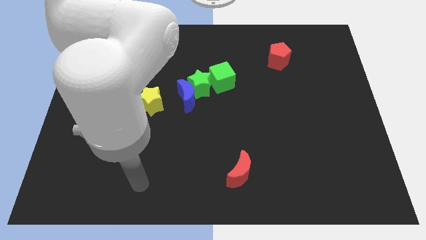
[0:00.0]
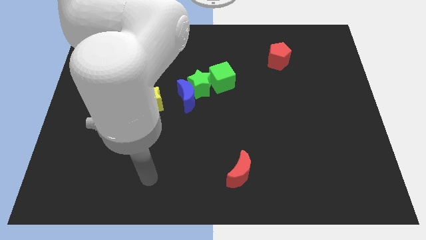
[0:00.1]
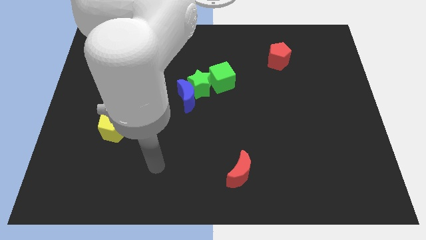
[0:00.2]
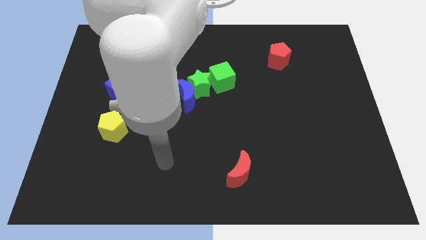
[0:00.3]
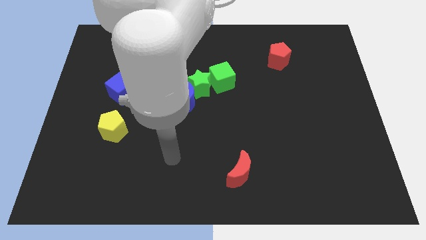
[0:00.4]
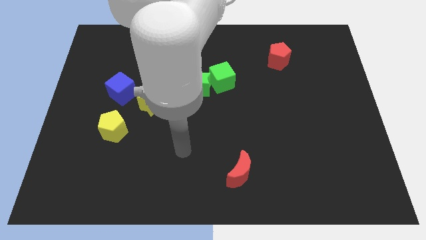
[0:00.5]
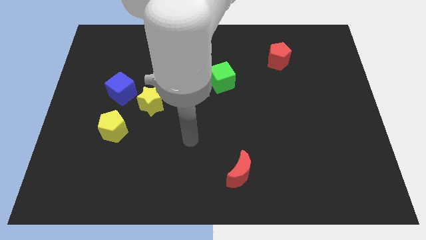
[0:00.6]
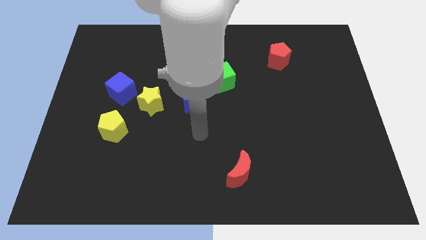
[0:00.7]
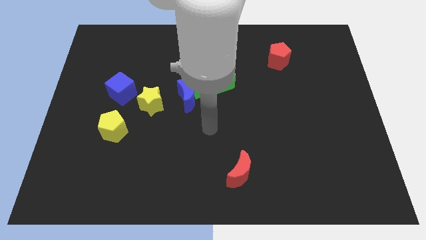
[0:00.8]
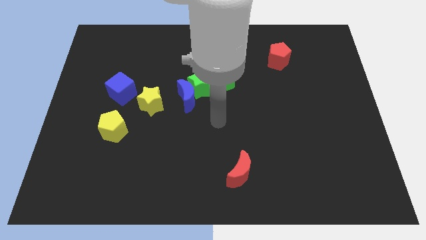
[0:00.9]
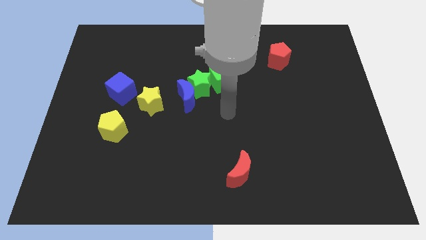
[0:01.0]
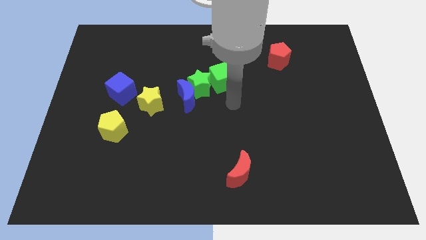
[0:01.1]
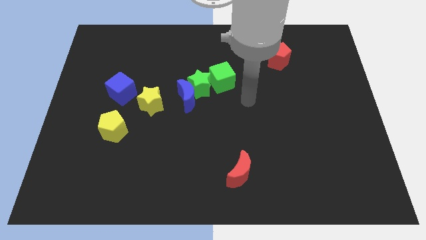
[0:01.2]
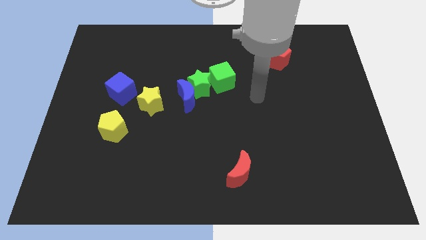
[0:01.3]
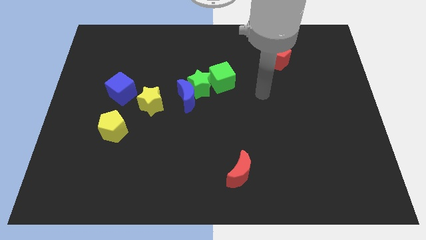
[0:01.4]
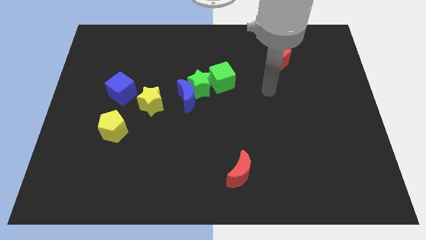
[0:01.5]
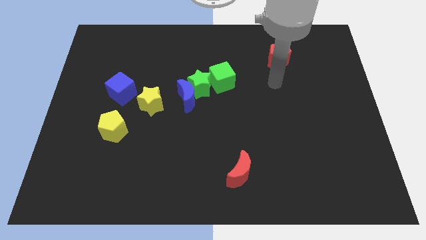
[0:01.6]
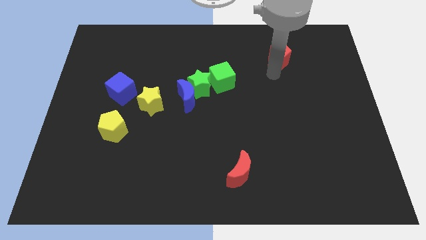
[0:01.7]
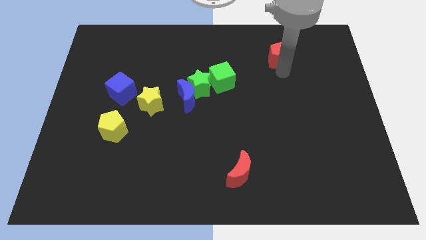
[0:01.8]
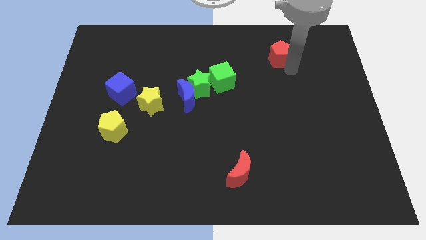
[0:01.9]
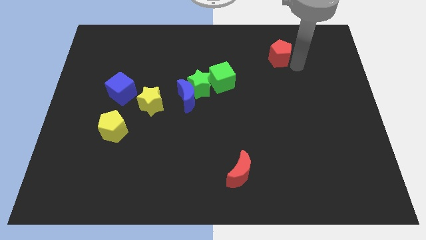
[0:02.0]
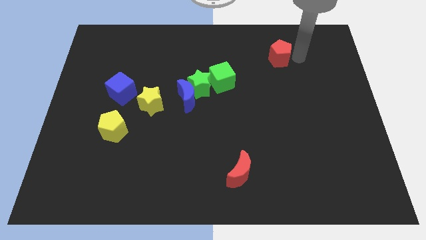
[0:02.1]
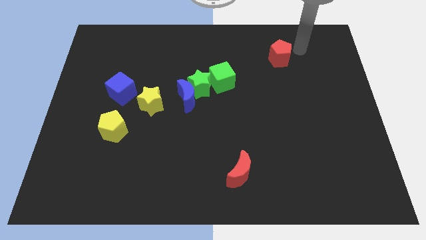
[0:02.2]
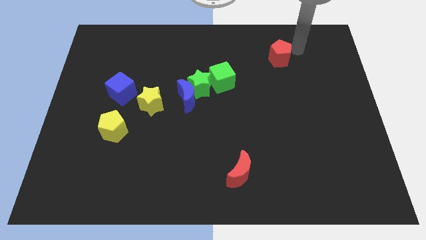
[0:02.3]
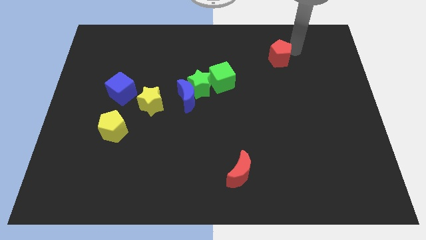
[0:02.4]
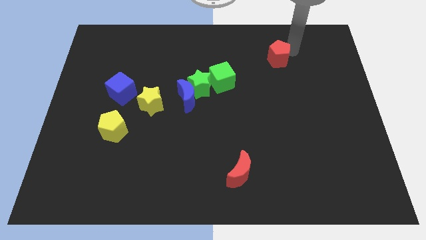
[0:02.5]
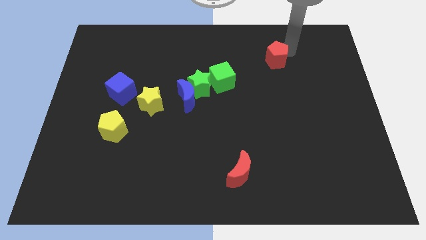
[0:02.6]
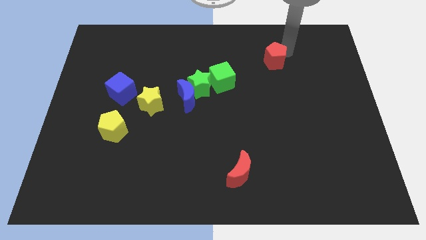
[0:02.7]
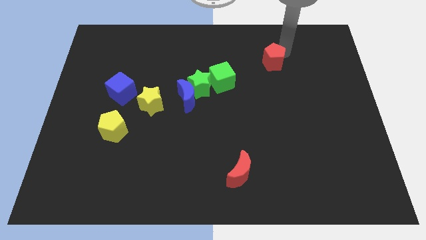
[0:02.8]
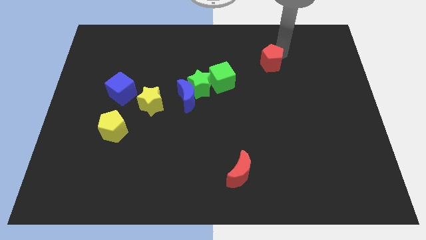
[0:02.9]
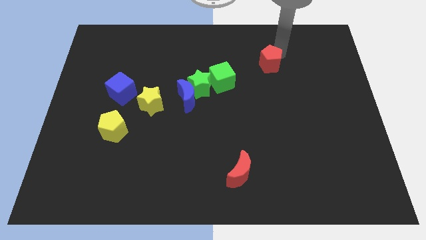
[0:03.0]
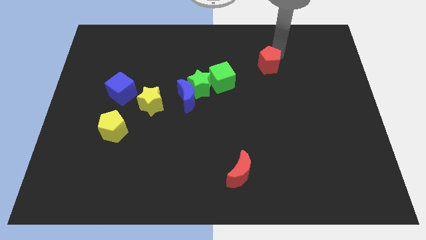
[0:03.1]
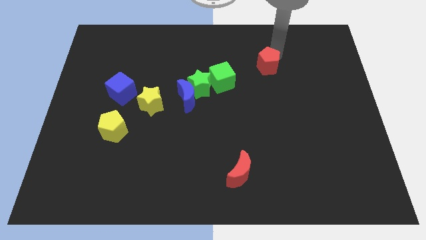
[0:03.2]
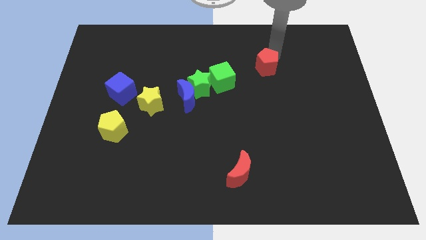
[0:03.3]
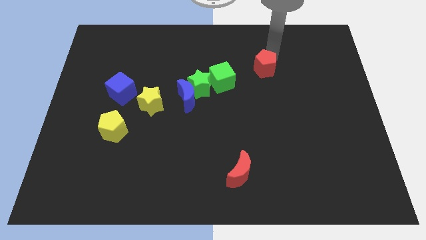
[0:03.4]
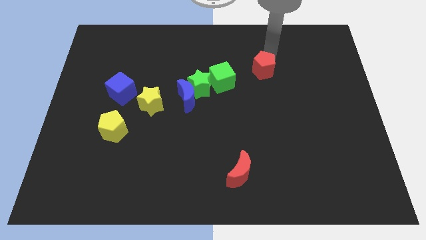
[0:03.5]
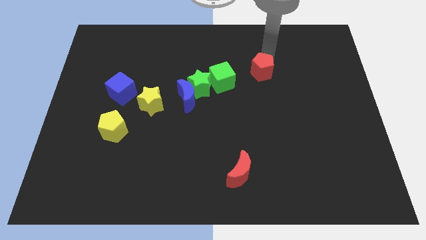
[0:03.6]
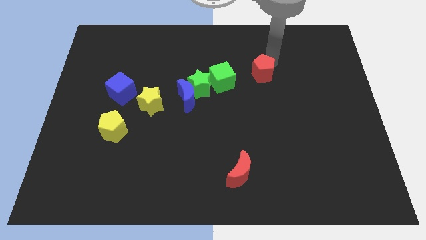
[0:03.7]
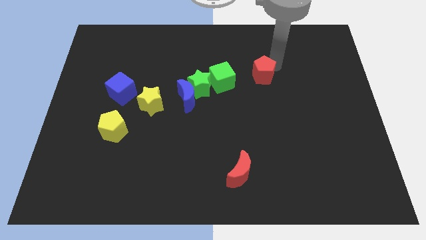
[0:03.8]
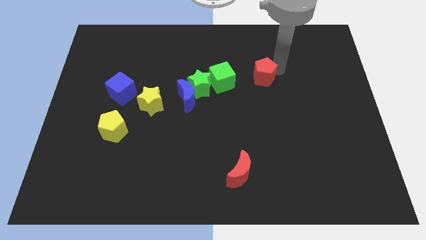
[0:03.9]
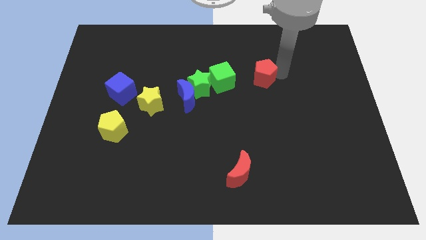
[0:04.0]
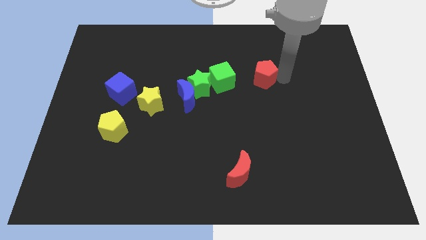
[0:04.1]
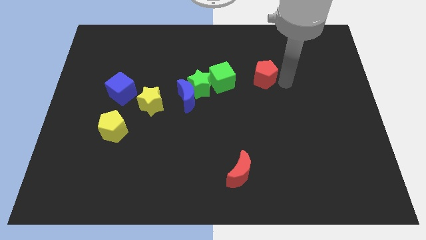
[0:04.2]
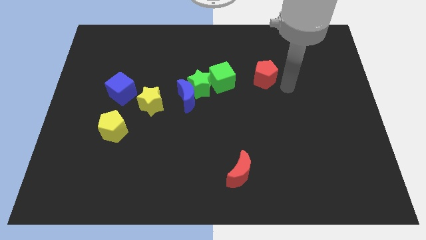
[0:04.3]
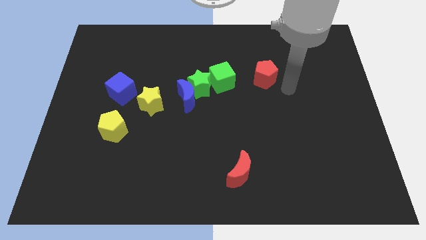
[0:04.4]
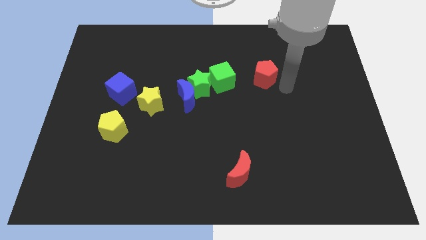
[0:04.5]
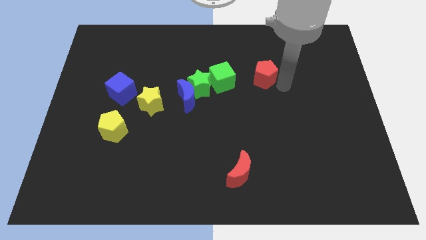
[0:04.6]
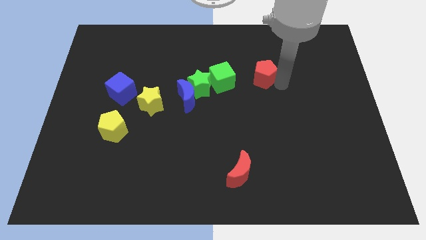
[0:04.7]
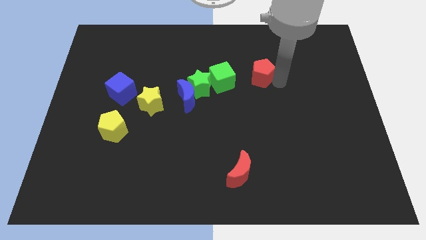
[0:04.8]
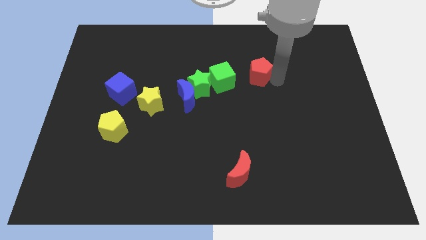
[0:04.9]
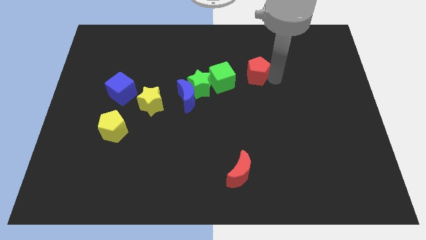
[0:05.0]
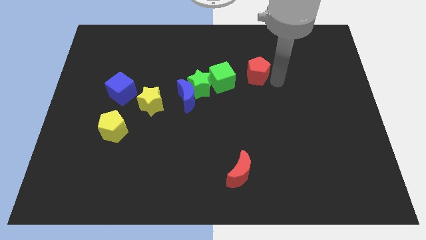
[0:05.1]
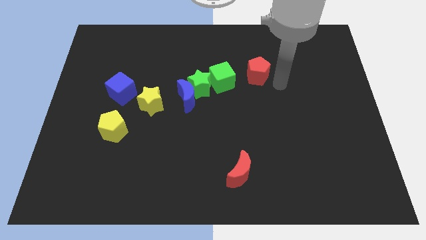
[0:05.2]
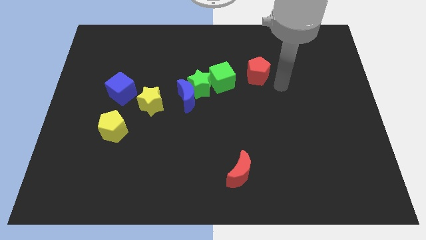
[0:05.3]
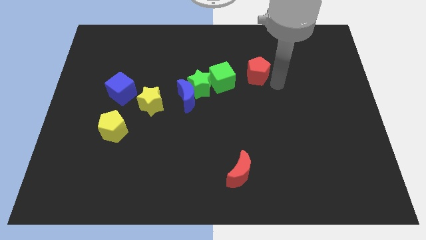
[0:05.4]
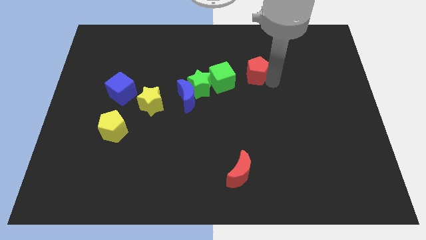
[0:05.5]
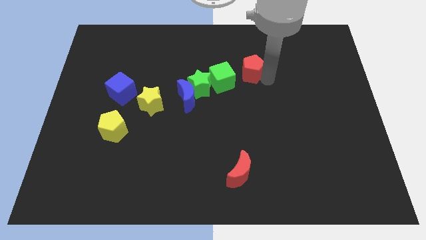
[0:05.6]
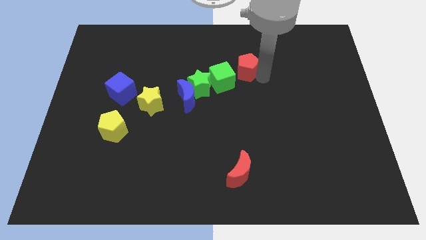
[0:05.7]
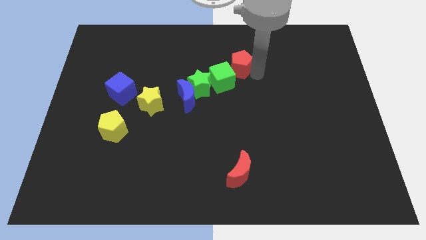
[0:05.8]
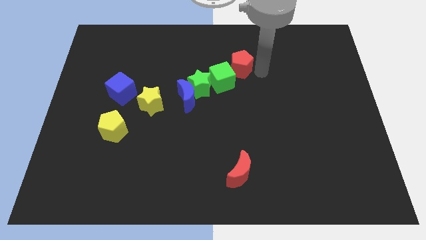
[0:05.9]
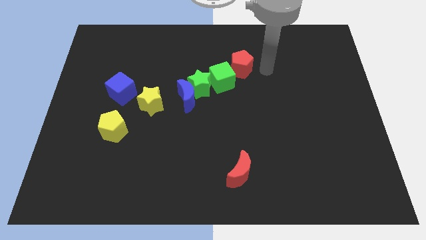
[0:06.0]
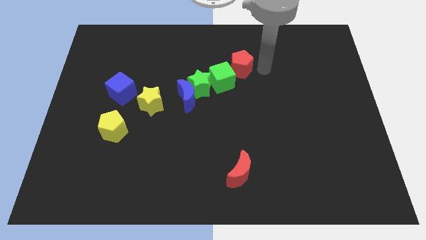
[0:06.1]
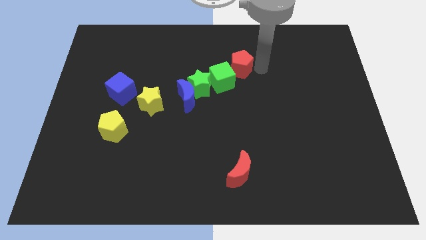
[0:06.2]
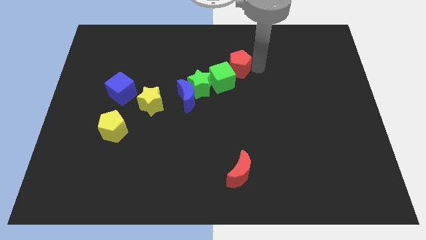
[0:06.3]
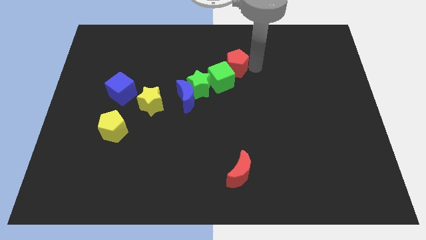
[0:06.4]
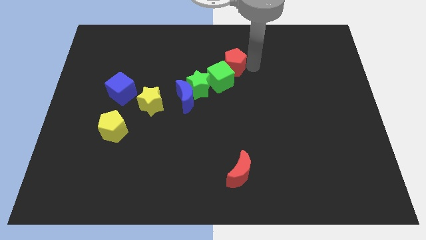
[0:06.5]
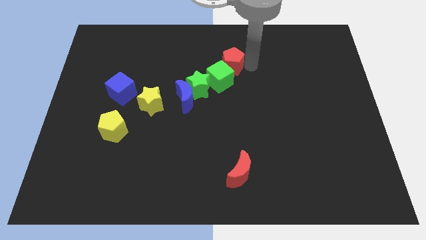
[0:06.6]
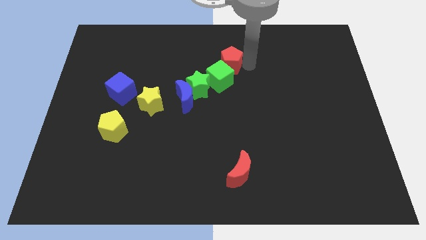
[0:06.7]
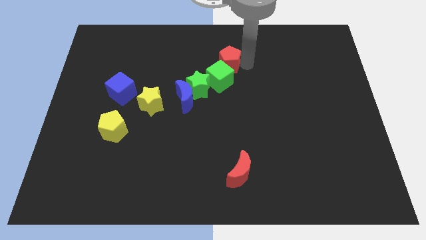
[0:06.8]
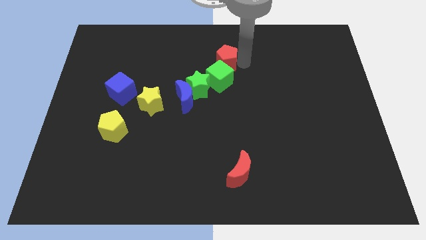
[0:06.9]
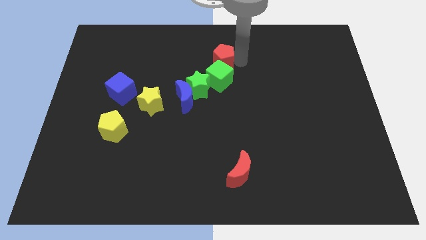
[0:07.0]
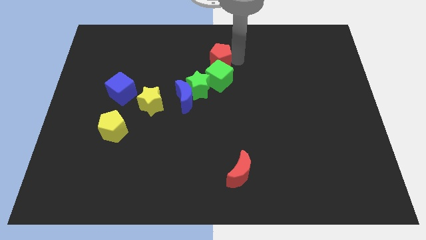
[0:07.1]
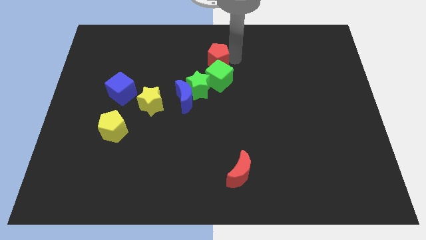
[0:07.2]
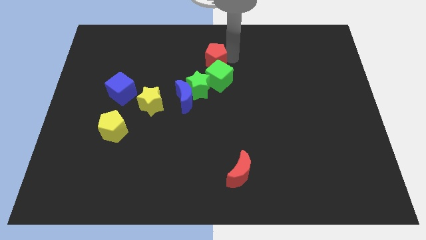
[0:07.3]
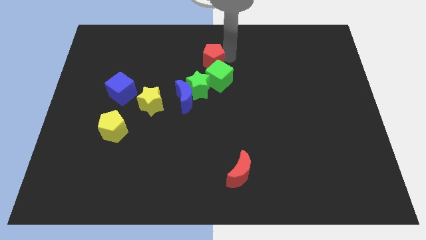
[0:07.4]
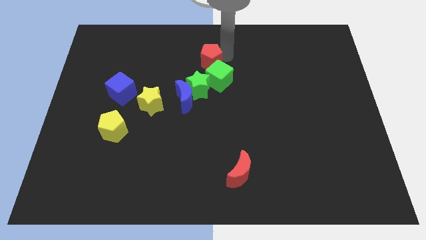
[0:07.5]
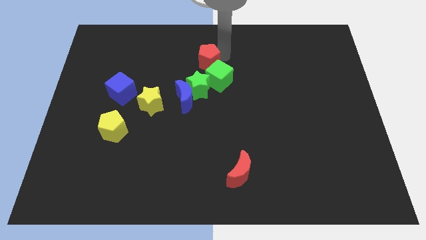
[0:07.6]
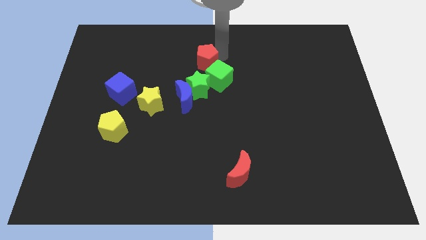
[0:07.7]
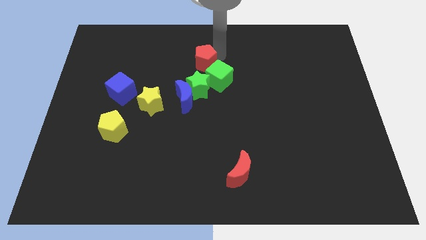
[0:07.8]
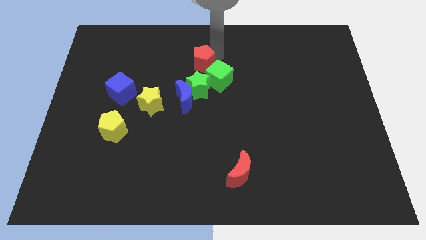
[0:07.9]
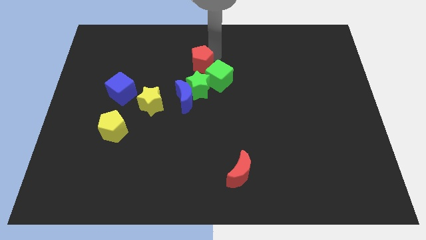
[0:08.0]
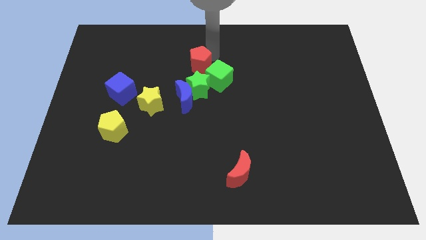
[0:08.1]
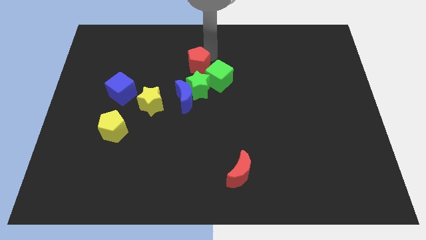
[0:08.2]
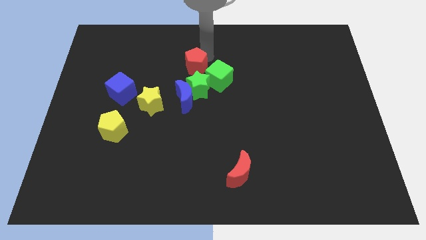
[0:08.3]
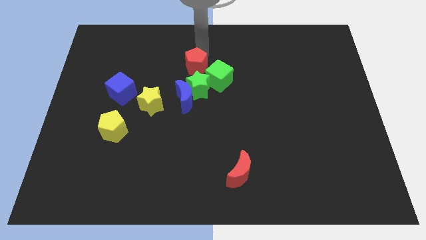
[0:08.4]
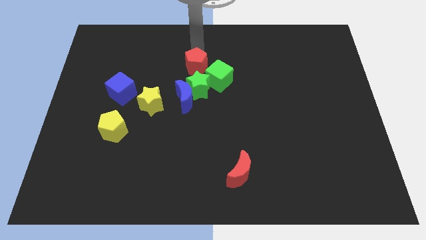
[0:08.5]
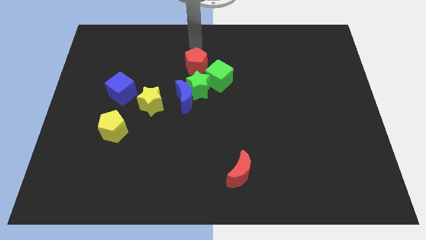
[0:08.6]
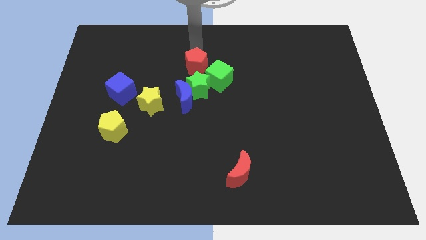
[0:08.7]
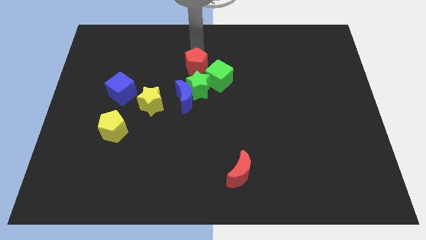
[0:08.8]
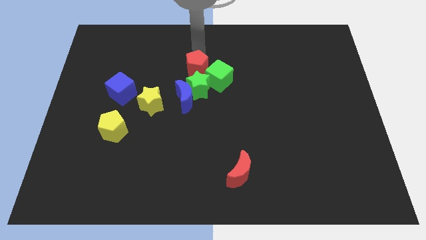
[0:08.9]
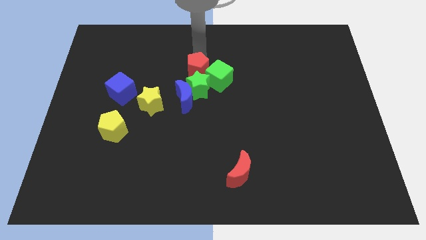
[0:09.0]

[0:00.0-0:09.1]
move the red pentagon next to the green star
